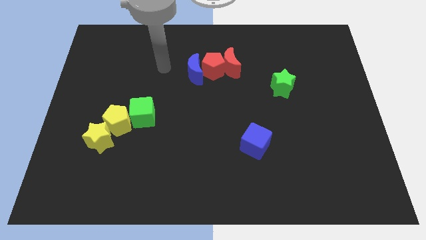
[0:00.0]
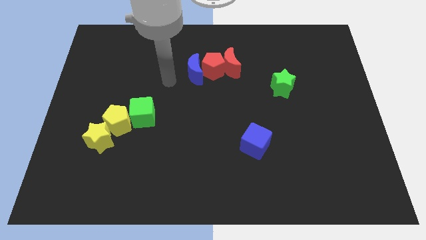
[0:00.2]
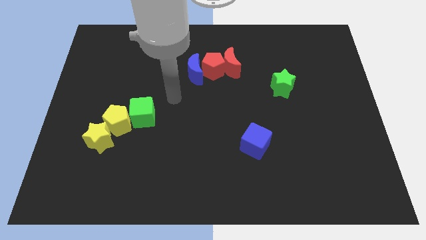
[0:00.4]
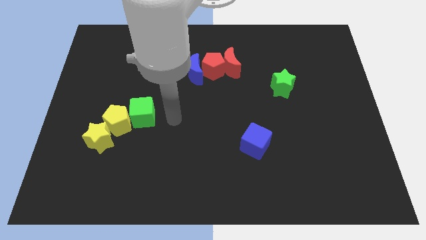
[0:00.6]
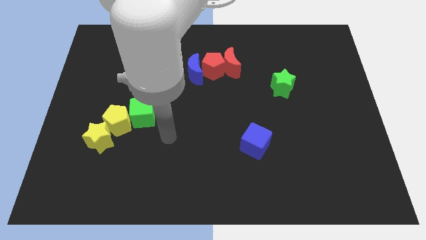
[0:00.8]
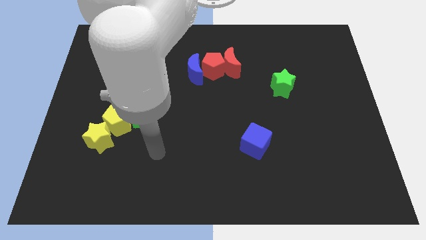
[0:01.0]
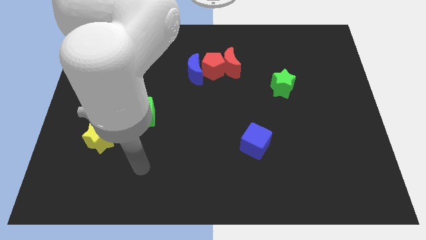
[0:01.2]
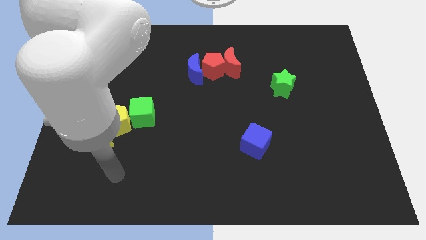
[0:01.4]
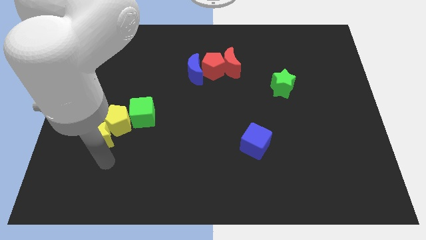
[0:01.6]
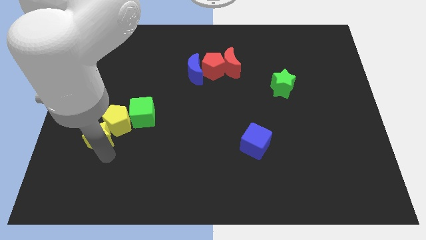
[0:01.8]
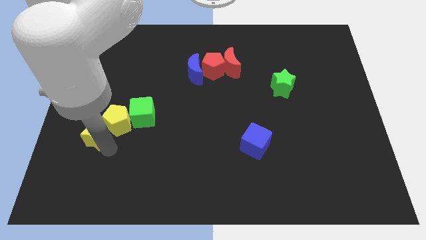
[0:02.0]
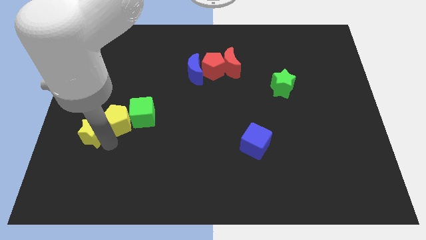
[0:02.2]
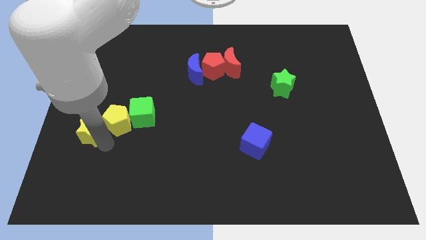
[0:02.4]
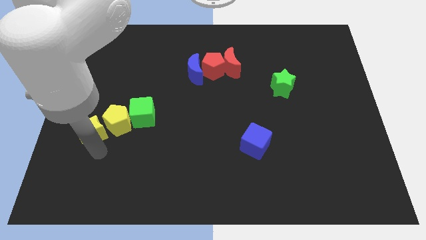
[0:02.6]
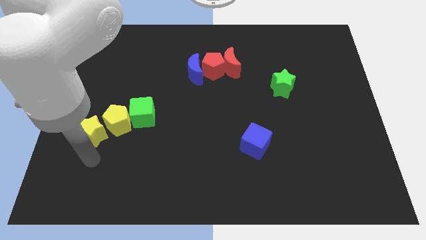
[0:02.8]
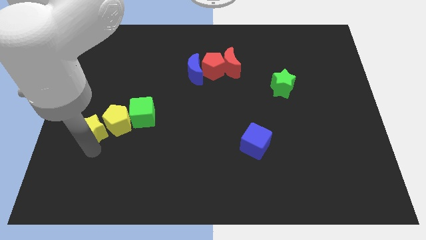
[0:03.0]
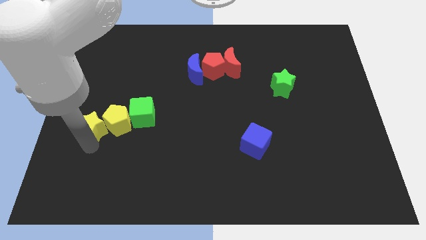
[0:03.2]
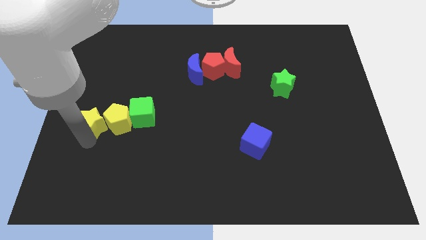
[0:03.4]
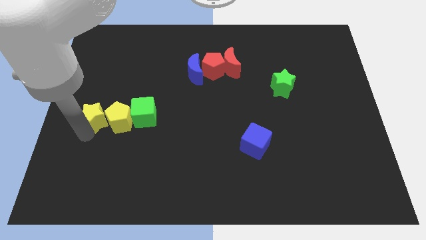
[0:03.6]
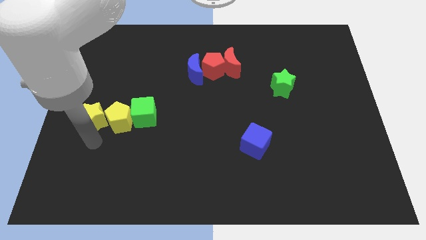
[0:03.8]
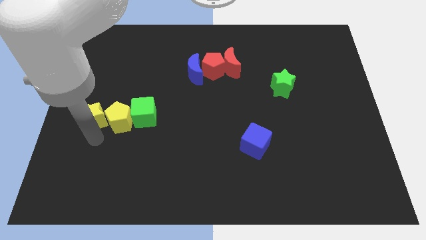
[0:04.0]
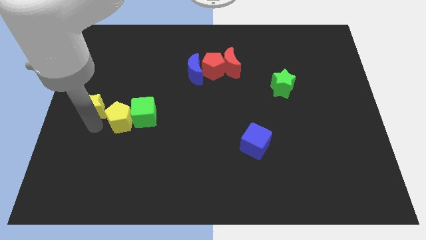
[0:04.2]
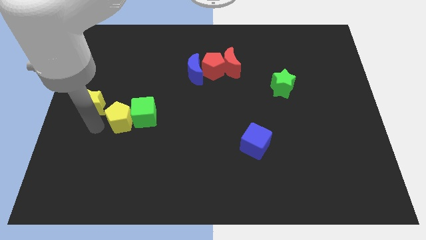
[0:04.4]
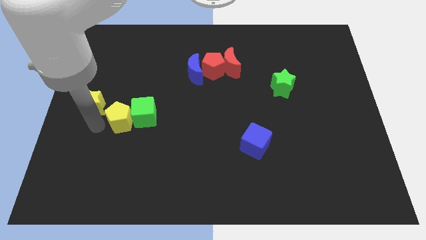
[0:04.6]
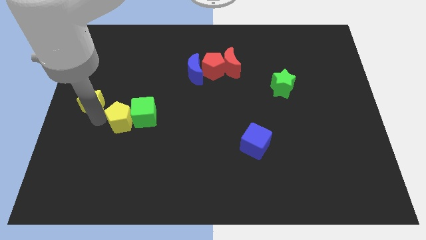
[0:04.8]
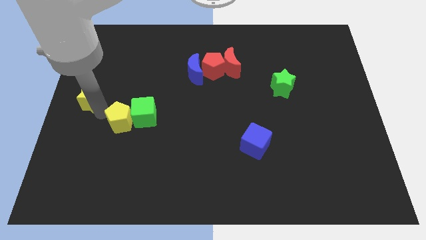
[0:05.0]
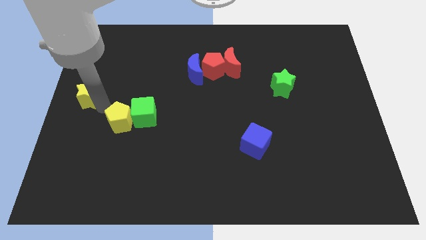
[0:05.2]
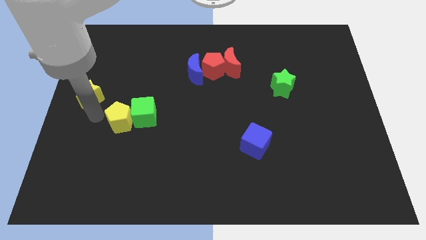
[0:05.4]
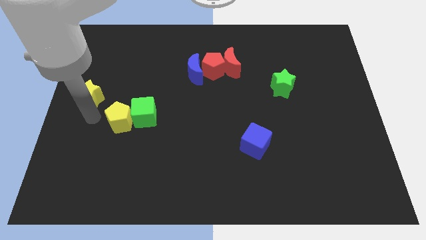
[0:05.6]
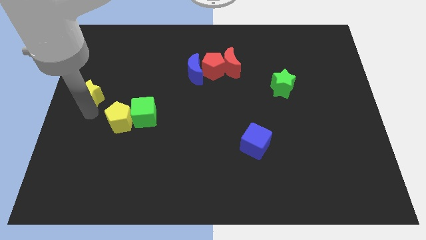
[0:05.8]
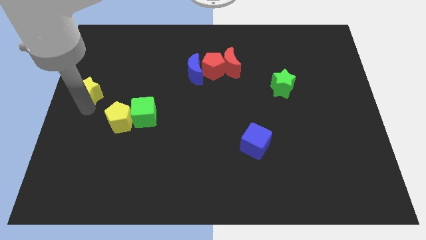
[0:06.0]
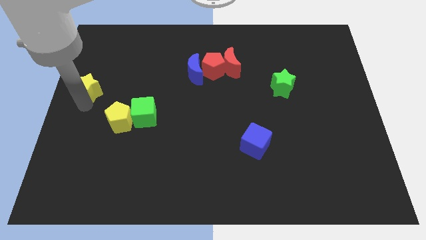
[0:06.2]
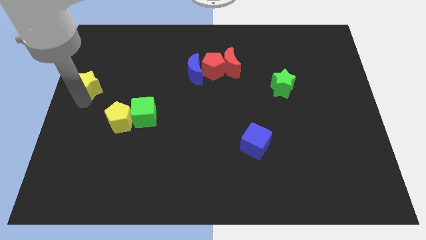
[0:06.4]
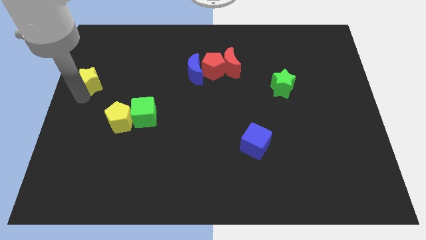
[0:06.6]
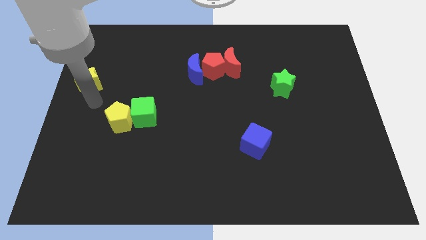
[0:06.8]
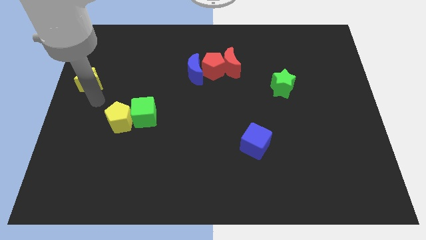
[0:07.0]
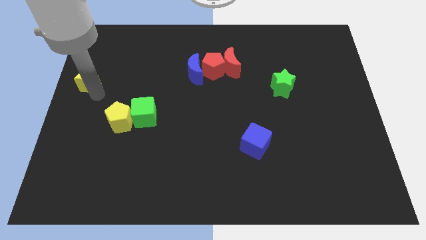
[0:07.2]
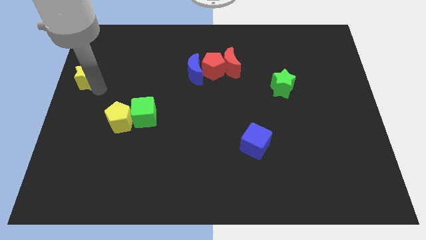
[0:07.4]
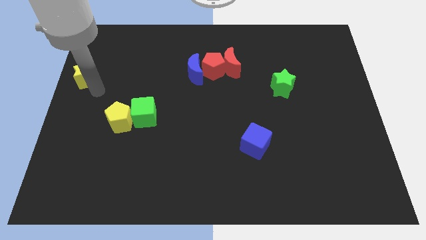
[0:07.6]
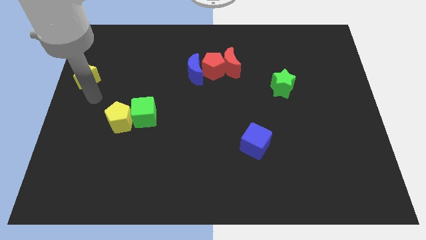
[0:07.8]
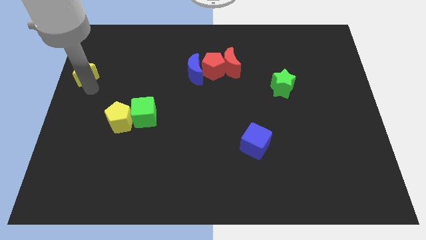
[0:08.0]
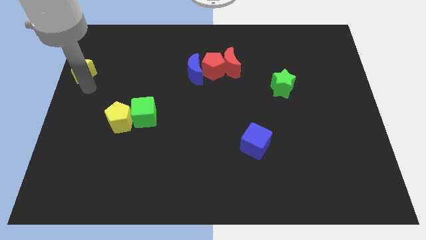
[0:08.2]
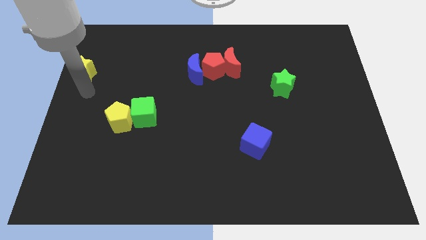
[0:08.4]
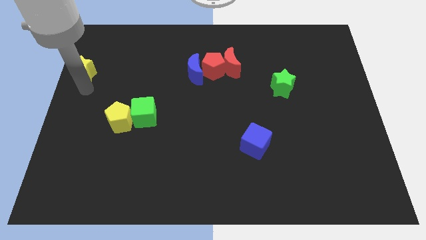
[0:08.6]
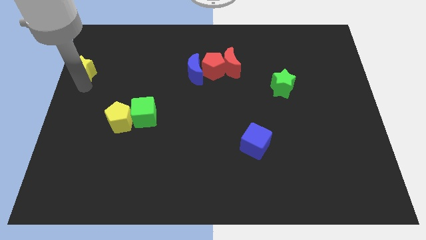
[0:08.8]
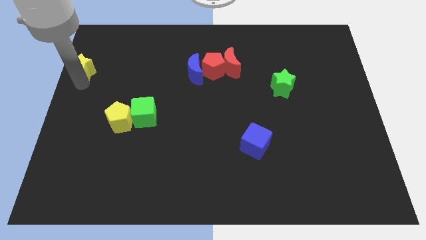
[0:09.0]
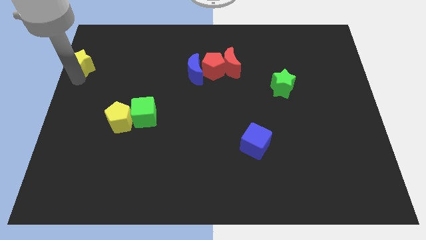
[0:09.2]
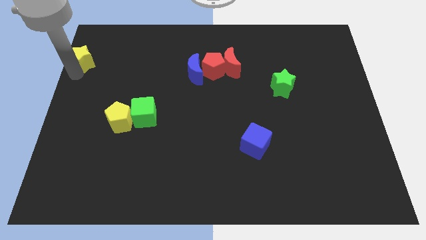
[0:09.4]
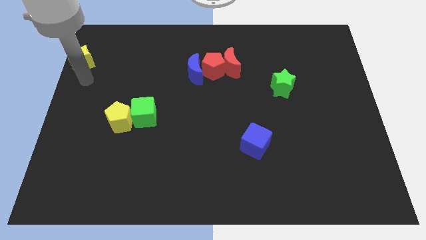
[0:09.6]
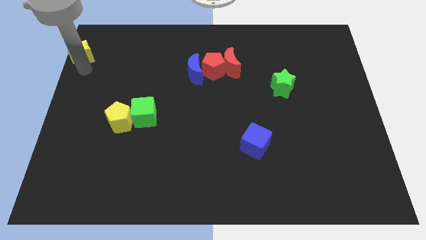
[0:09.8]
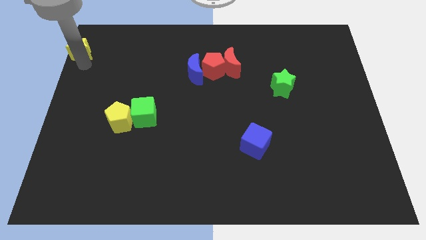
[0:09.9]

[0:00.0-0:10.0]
push the yellow star to the top left

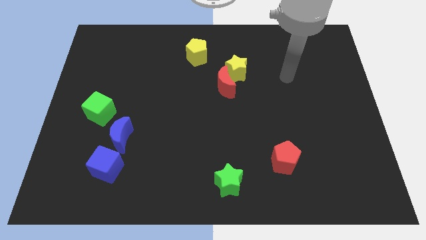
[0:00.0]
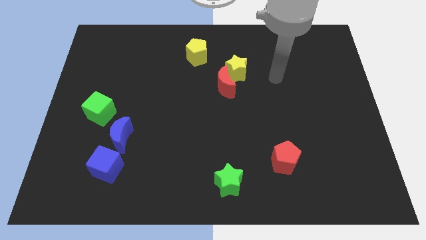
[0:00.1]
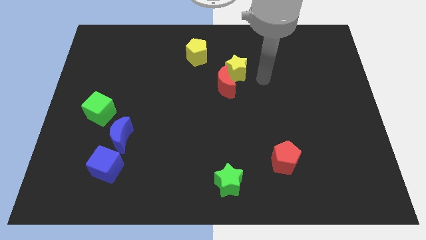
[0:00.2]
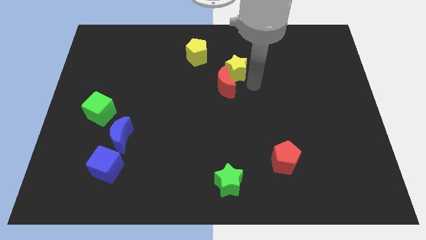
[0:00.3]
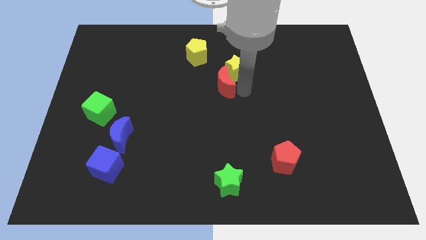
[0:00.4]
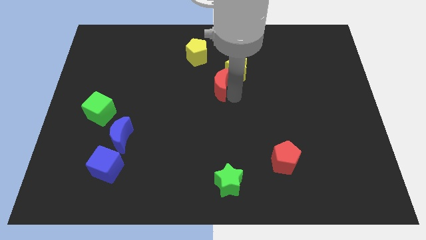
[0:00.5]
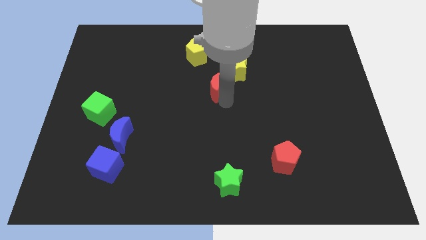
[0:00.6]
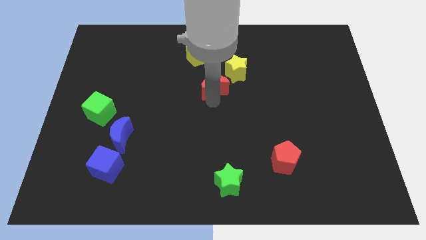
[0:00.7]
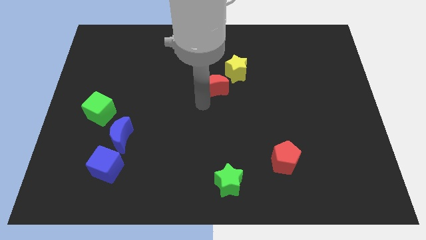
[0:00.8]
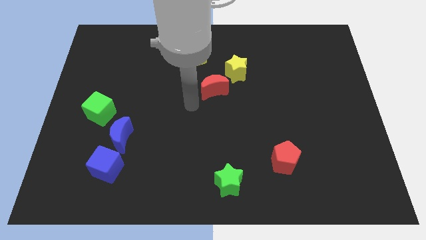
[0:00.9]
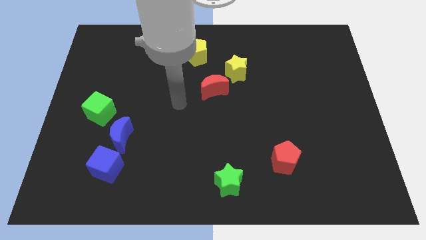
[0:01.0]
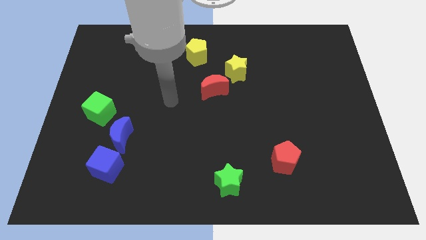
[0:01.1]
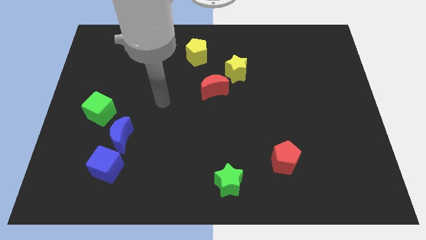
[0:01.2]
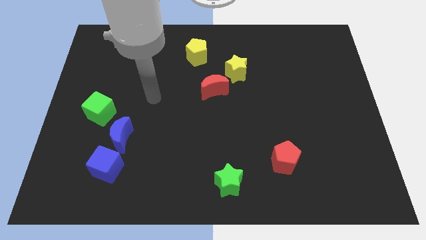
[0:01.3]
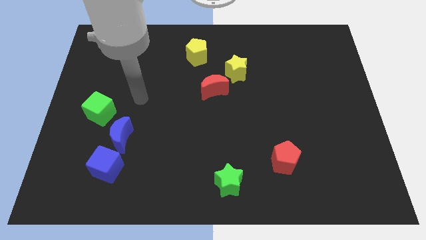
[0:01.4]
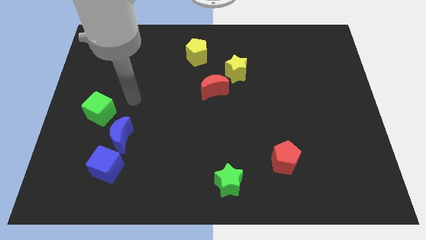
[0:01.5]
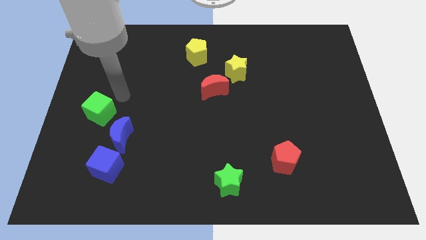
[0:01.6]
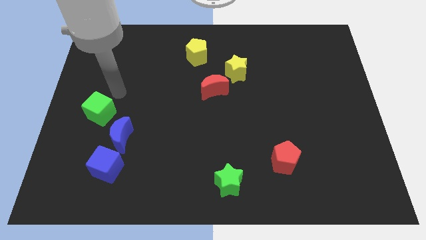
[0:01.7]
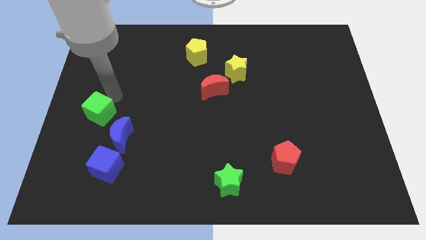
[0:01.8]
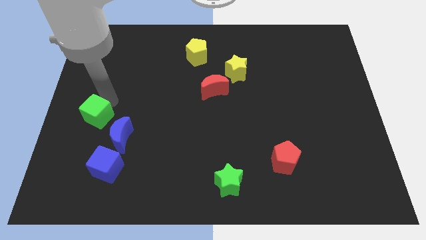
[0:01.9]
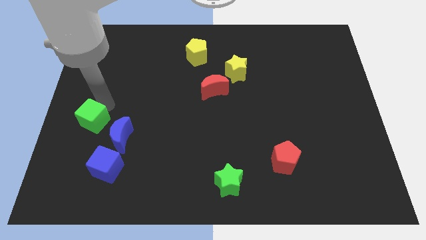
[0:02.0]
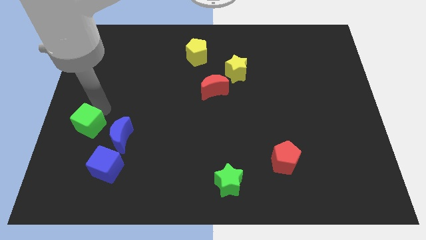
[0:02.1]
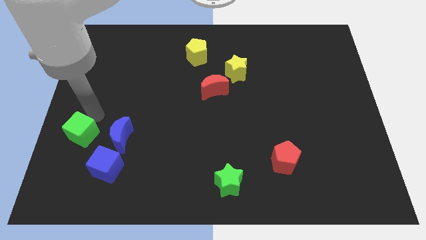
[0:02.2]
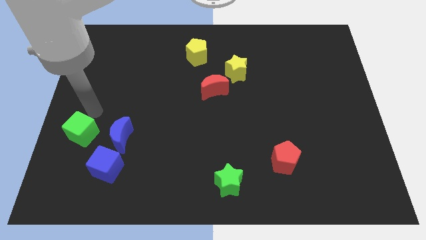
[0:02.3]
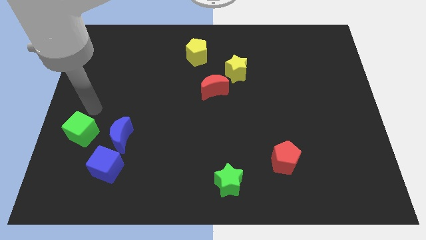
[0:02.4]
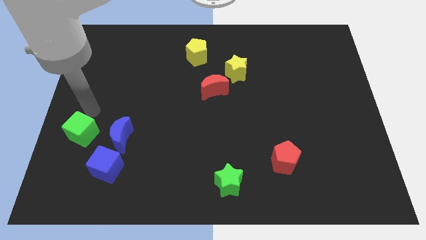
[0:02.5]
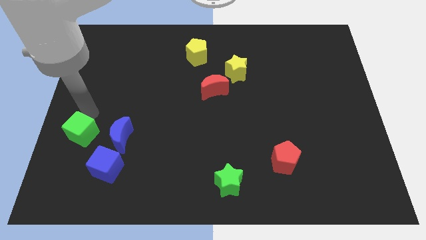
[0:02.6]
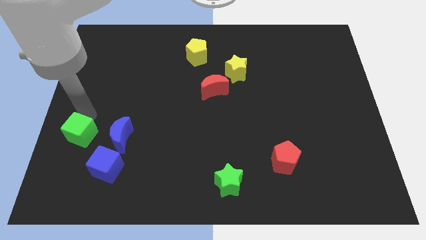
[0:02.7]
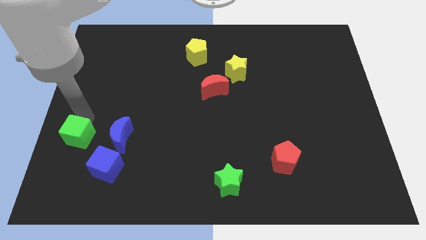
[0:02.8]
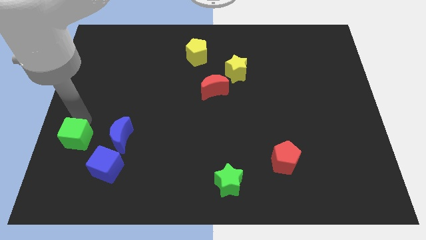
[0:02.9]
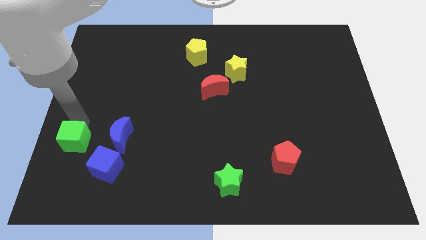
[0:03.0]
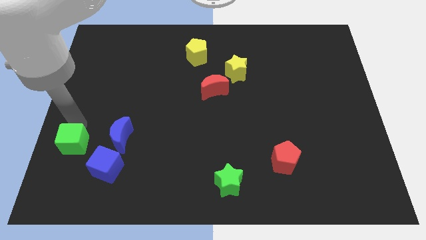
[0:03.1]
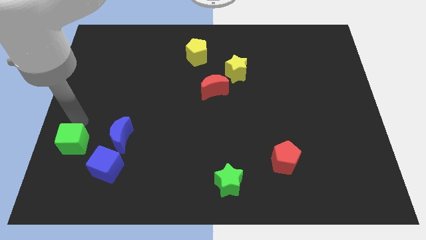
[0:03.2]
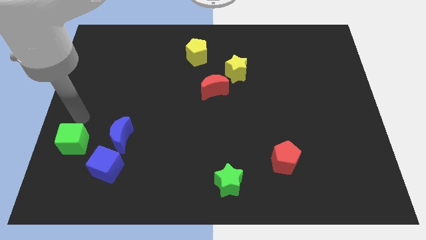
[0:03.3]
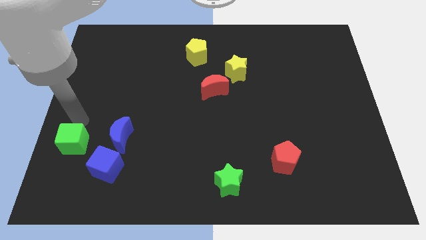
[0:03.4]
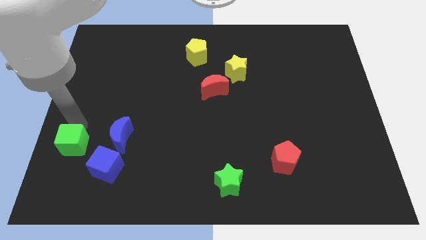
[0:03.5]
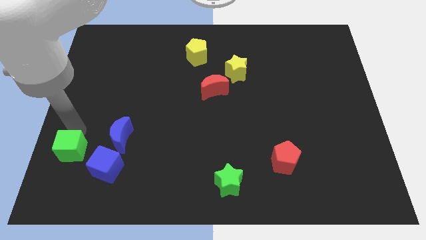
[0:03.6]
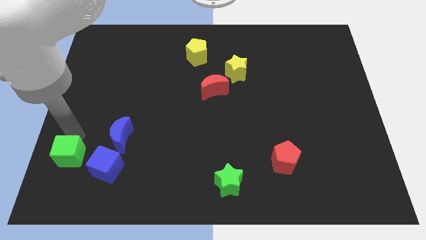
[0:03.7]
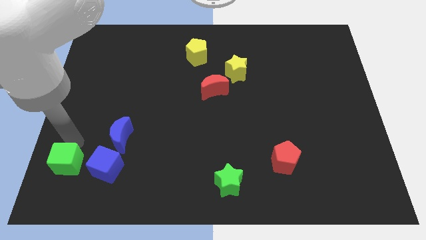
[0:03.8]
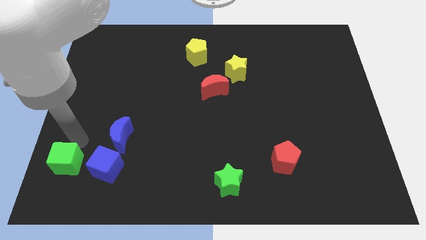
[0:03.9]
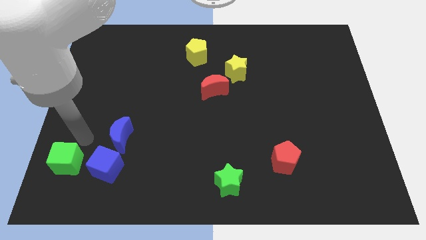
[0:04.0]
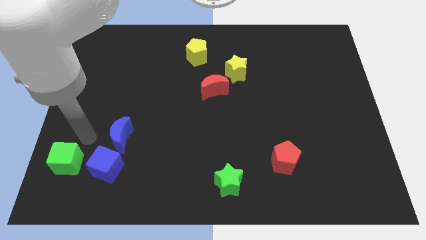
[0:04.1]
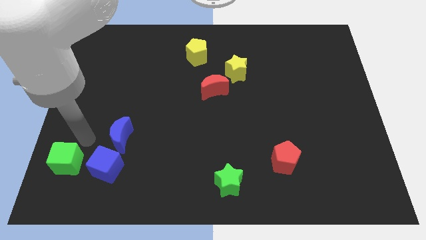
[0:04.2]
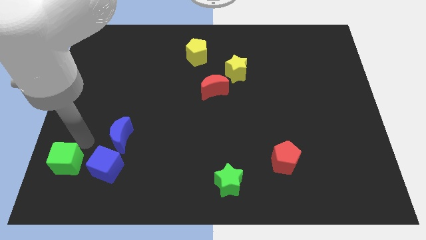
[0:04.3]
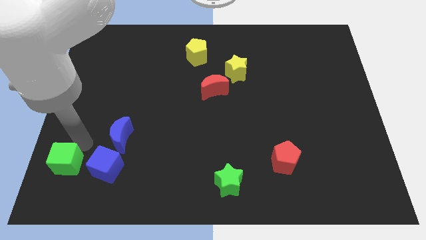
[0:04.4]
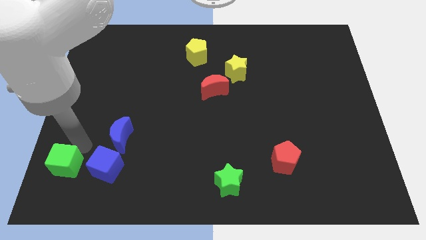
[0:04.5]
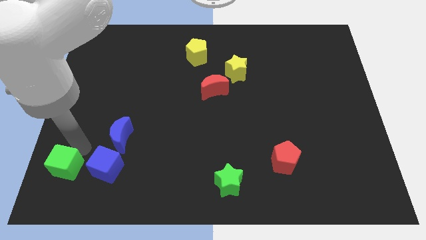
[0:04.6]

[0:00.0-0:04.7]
push the green cube to the bottom left corner
